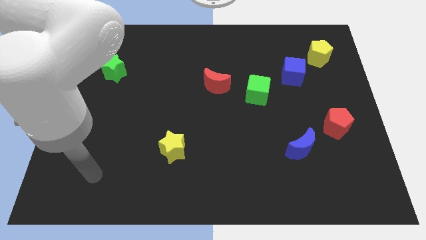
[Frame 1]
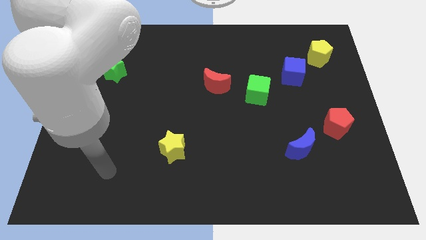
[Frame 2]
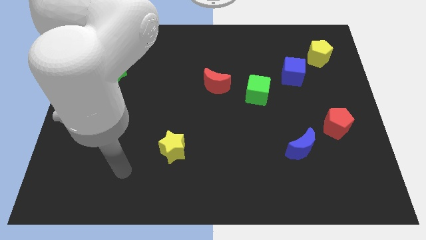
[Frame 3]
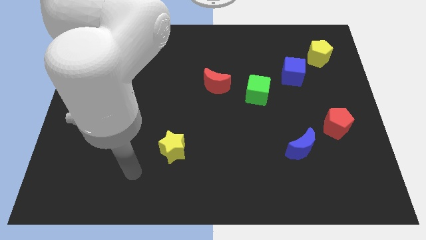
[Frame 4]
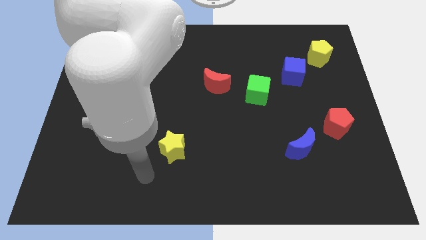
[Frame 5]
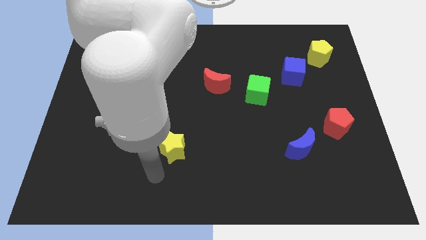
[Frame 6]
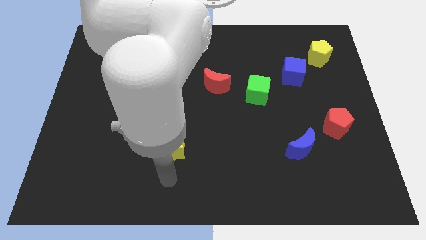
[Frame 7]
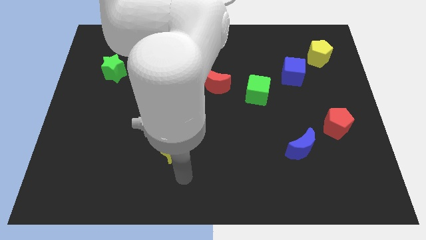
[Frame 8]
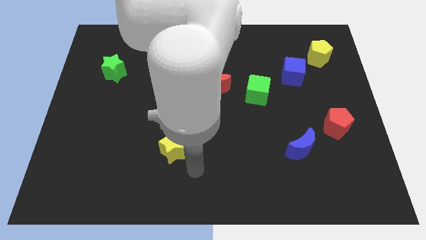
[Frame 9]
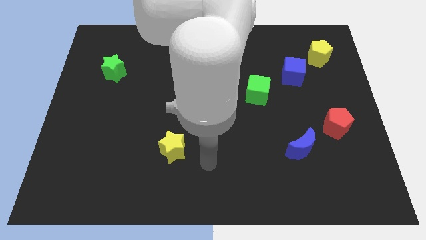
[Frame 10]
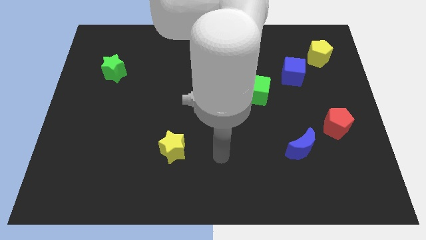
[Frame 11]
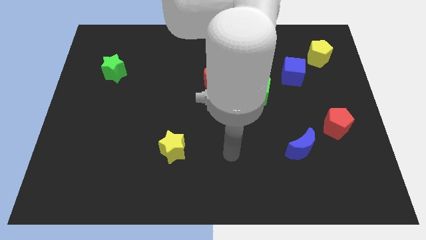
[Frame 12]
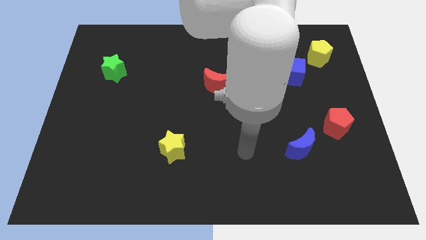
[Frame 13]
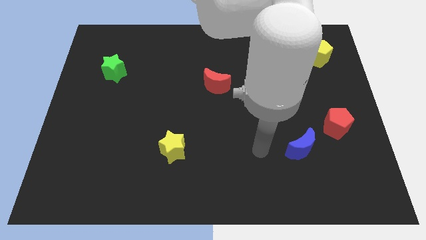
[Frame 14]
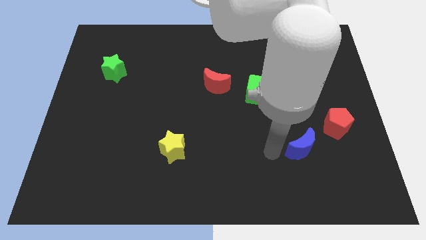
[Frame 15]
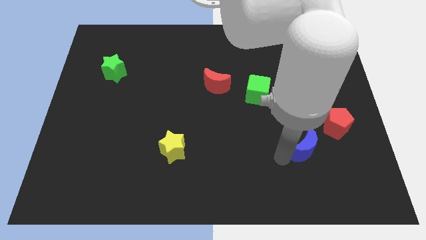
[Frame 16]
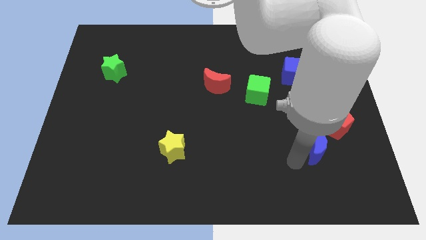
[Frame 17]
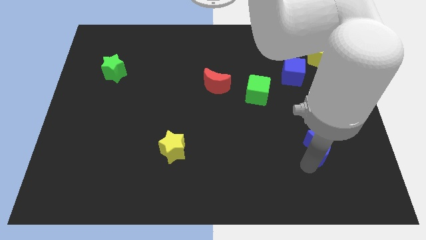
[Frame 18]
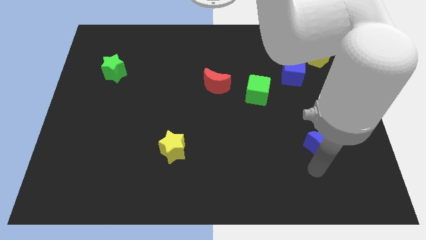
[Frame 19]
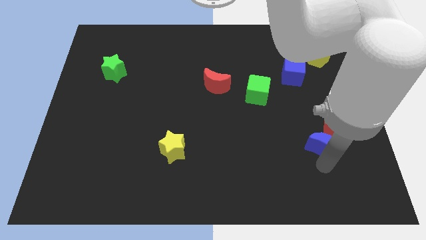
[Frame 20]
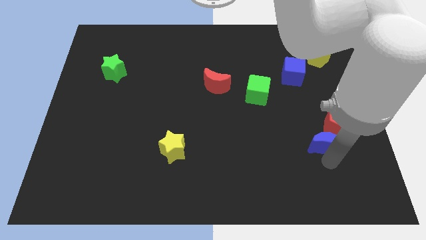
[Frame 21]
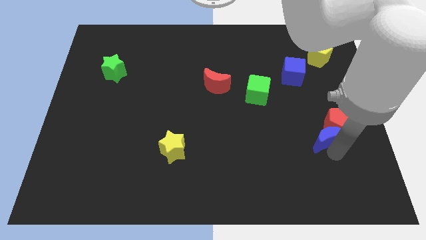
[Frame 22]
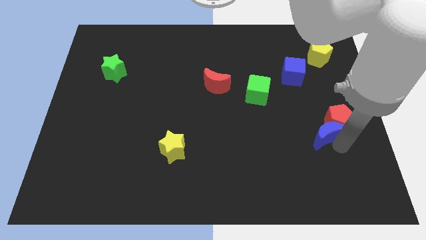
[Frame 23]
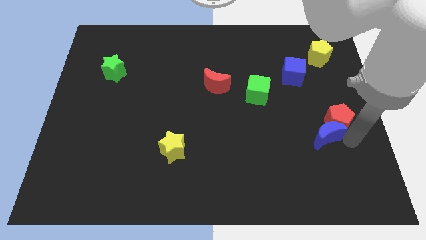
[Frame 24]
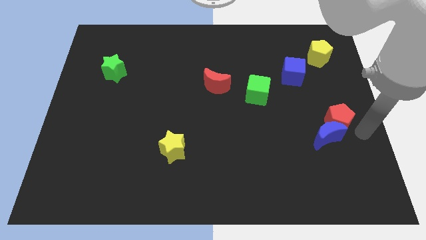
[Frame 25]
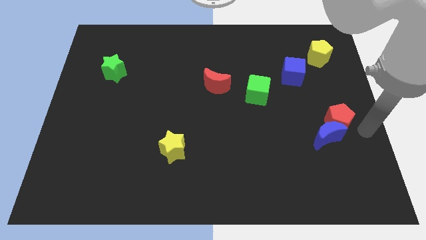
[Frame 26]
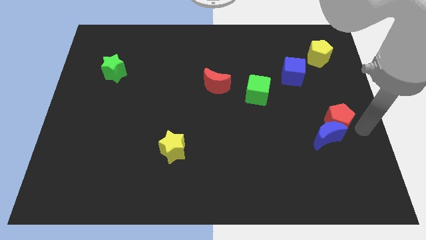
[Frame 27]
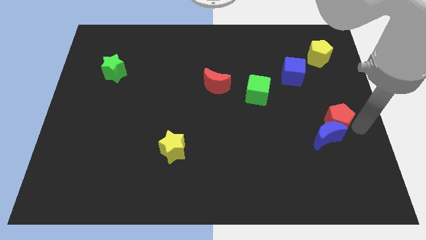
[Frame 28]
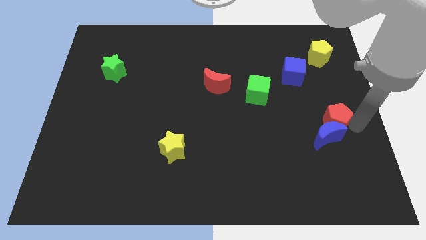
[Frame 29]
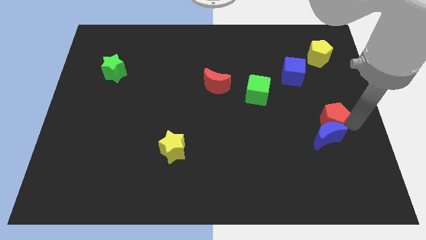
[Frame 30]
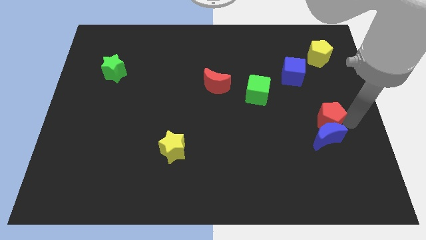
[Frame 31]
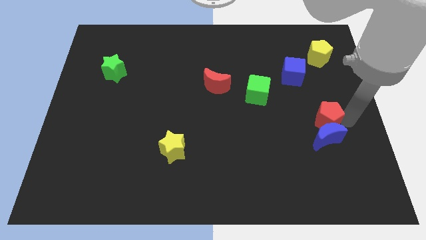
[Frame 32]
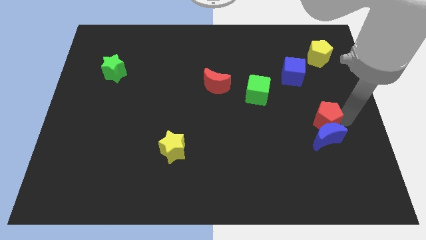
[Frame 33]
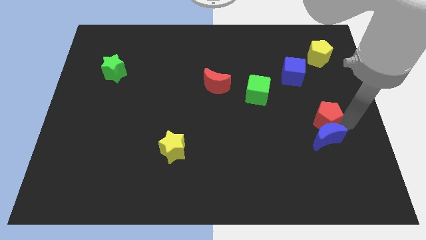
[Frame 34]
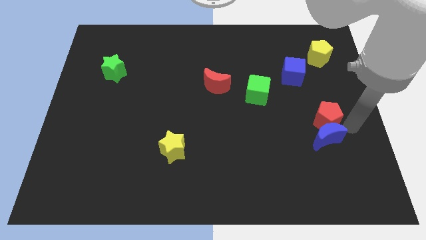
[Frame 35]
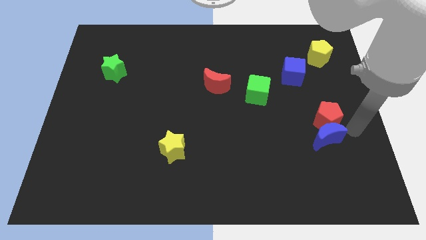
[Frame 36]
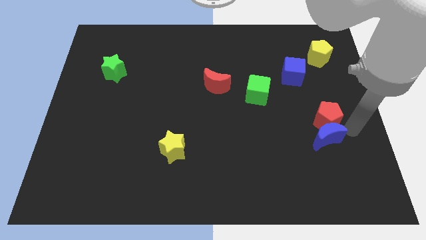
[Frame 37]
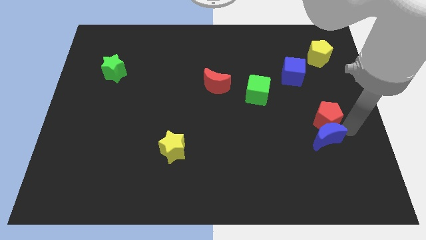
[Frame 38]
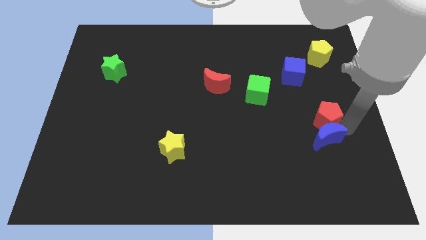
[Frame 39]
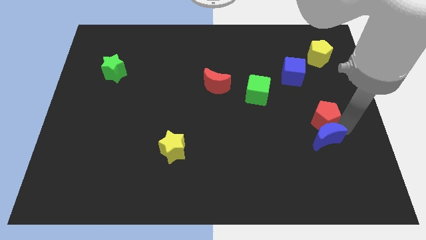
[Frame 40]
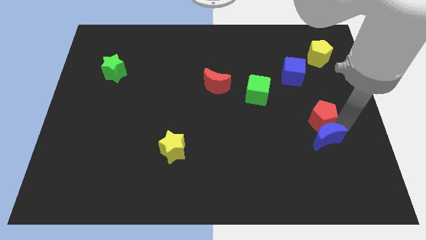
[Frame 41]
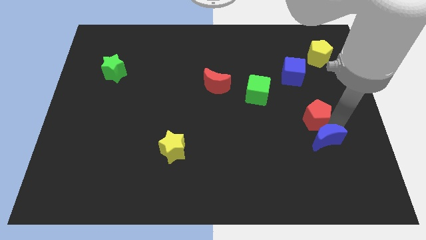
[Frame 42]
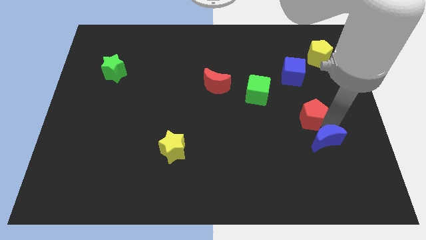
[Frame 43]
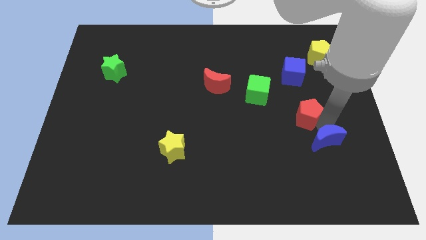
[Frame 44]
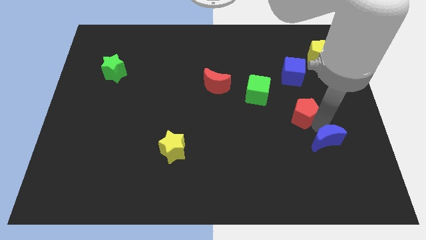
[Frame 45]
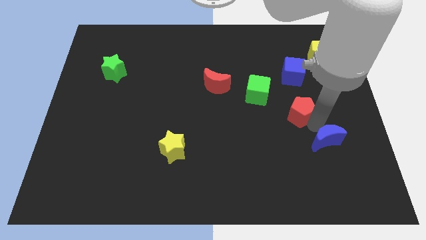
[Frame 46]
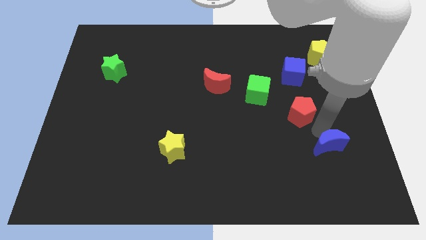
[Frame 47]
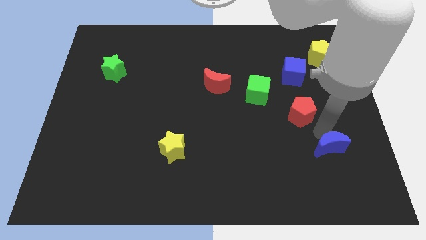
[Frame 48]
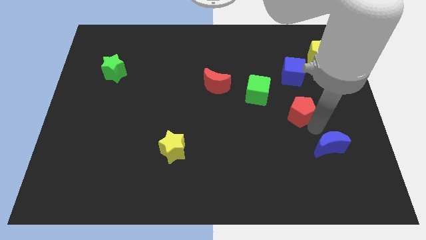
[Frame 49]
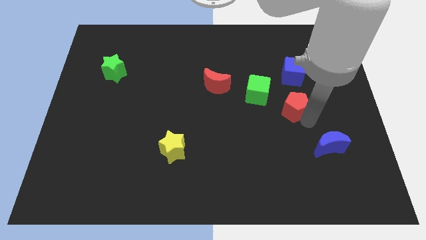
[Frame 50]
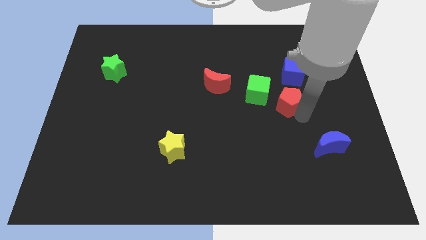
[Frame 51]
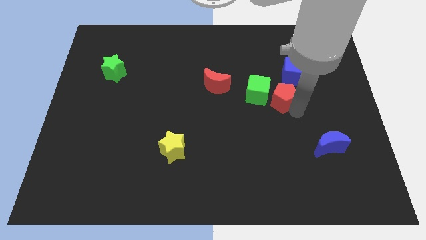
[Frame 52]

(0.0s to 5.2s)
move the red pentagon diagonally down and to the left of the blue cube

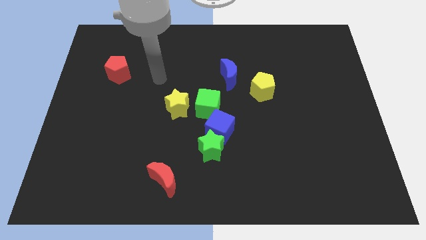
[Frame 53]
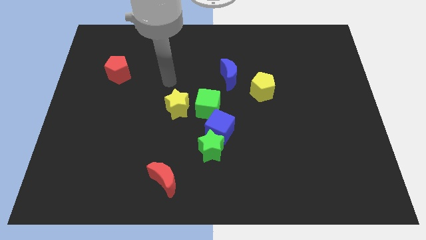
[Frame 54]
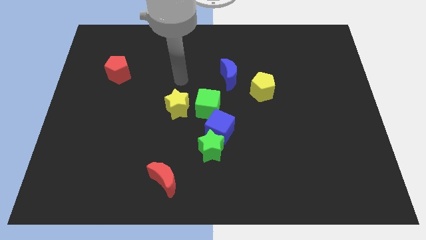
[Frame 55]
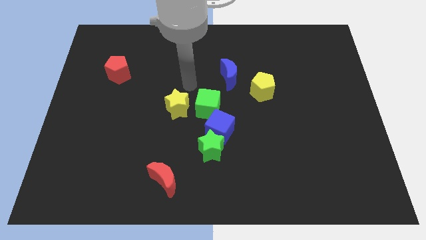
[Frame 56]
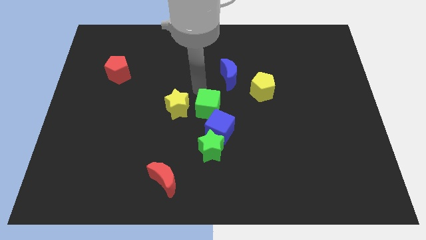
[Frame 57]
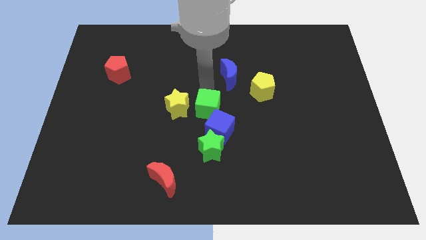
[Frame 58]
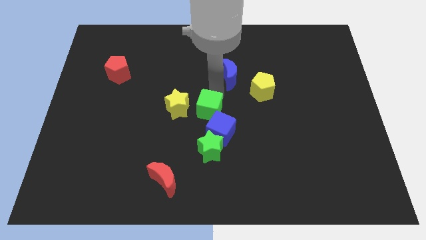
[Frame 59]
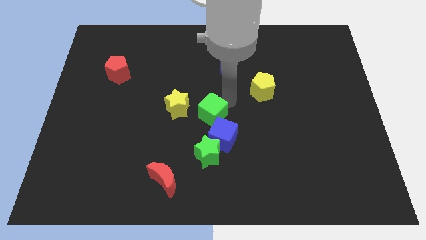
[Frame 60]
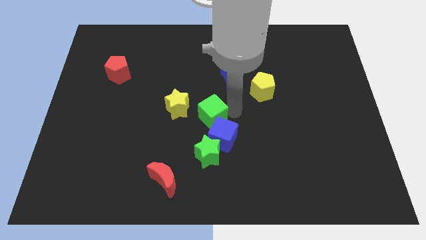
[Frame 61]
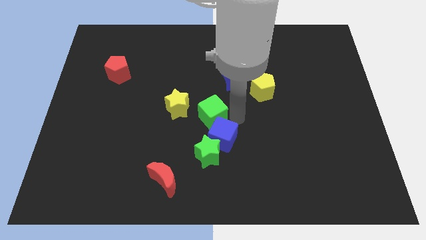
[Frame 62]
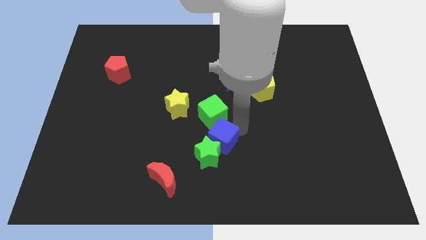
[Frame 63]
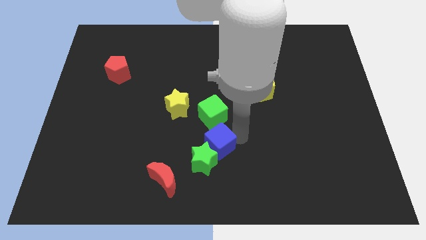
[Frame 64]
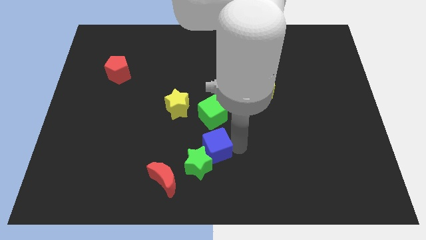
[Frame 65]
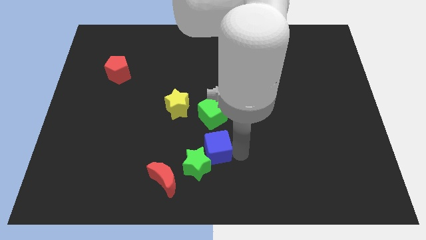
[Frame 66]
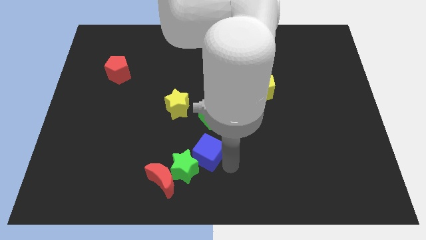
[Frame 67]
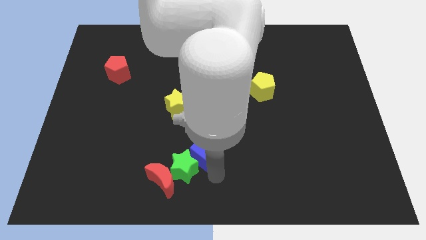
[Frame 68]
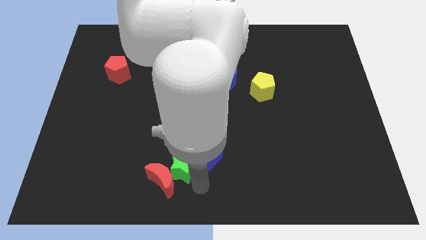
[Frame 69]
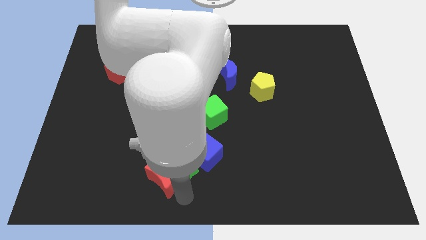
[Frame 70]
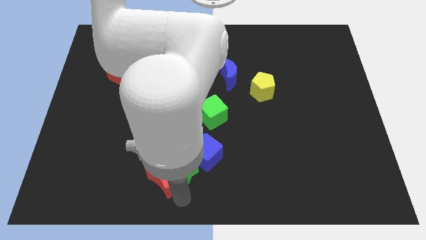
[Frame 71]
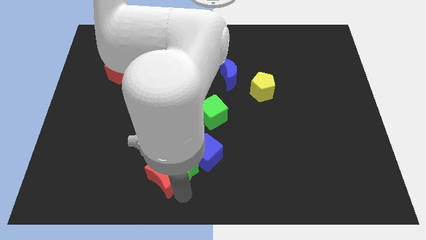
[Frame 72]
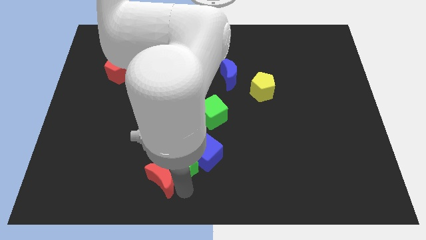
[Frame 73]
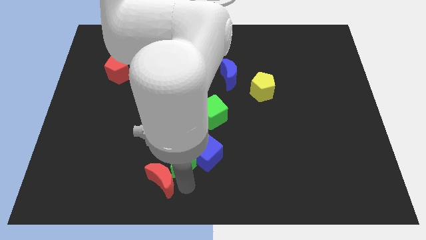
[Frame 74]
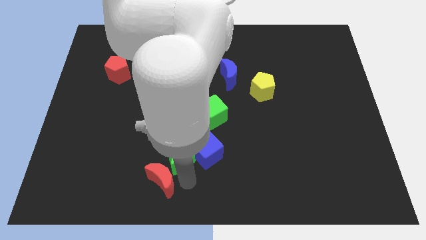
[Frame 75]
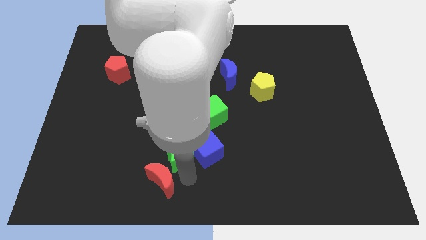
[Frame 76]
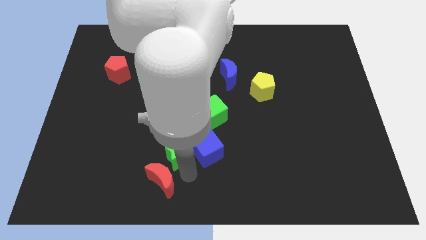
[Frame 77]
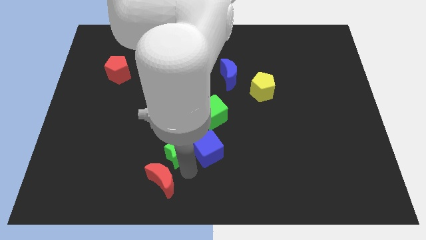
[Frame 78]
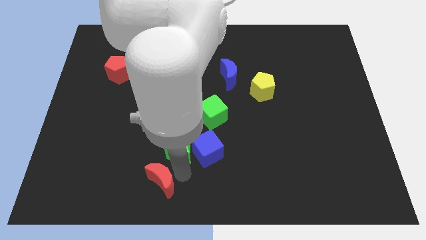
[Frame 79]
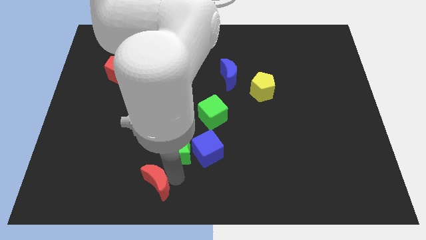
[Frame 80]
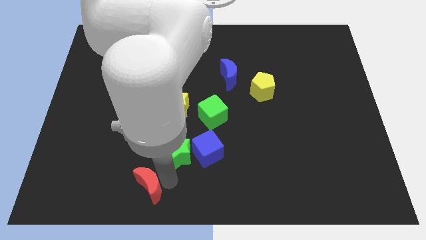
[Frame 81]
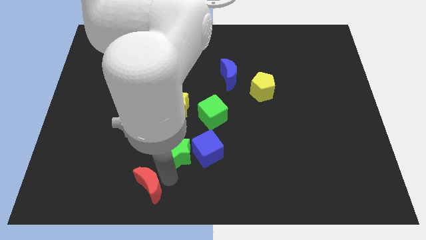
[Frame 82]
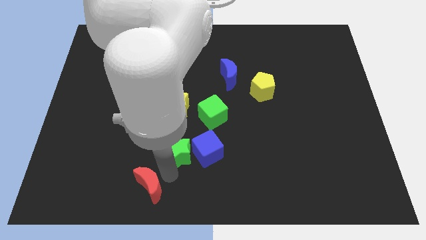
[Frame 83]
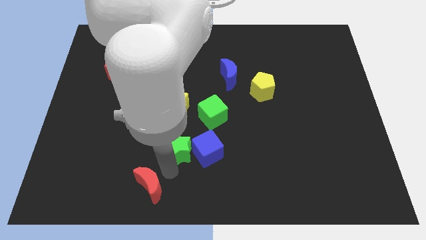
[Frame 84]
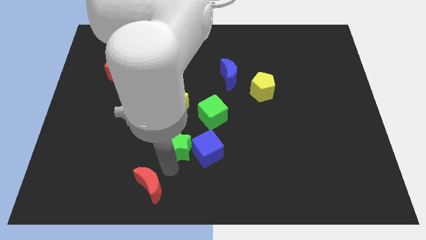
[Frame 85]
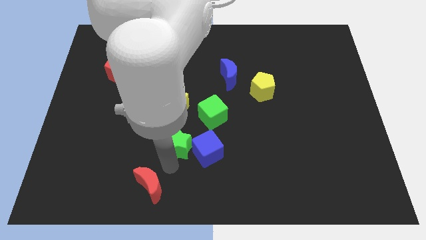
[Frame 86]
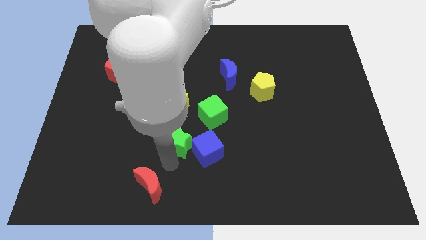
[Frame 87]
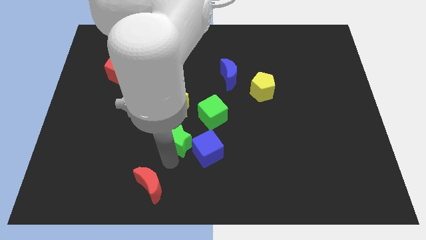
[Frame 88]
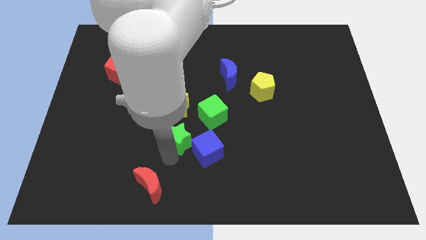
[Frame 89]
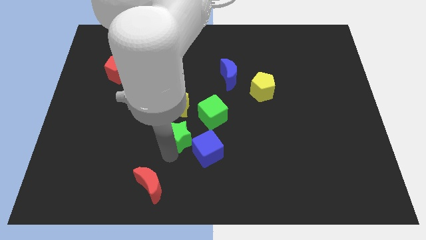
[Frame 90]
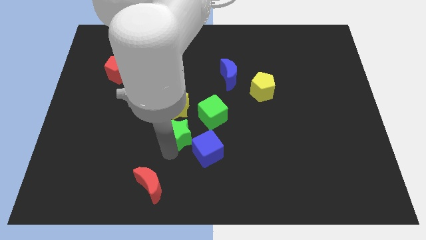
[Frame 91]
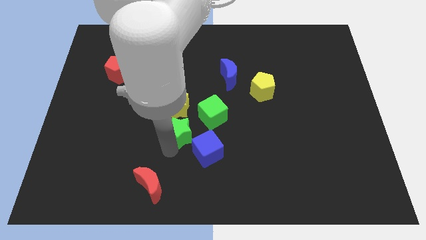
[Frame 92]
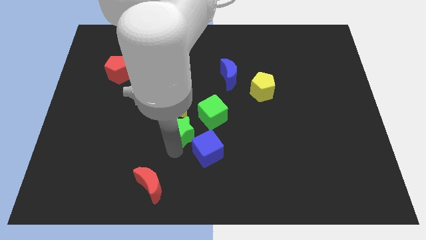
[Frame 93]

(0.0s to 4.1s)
move the green star to the left of the green cube
